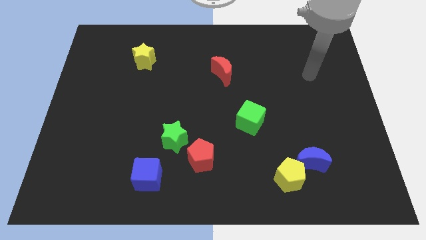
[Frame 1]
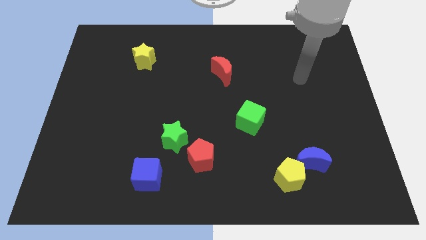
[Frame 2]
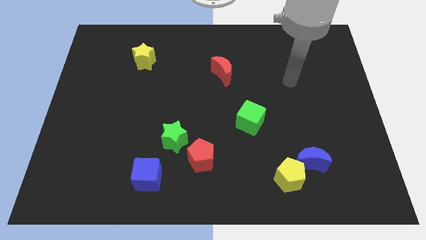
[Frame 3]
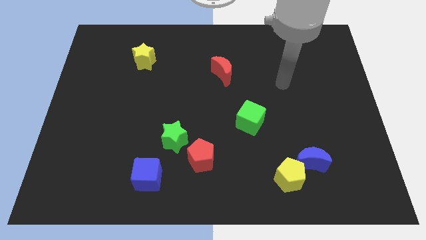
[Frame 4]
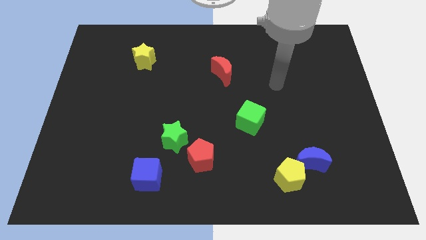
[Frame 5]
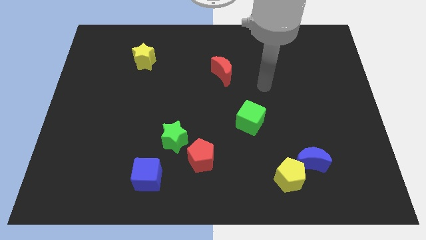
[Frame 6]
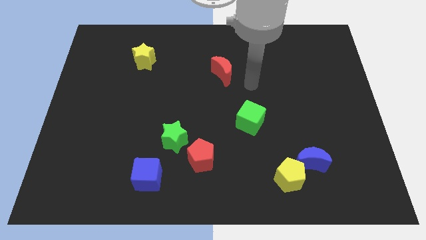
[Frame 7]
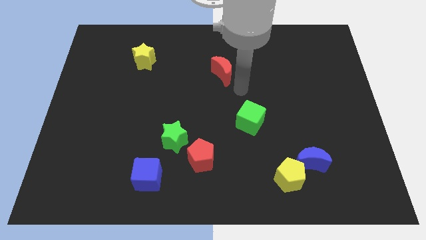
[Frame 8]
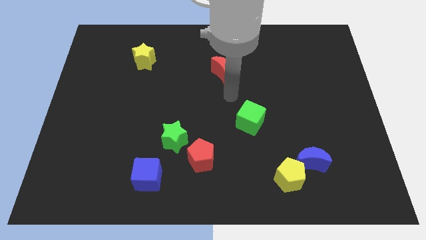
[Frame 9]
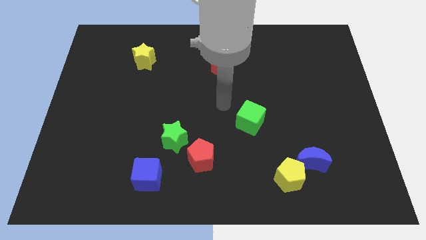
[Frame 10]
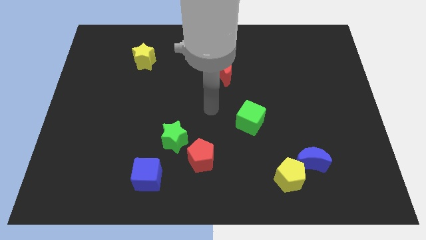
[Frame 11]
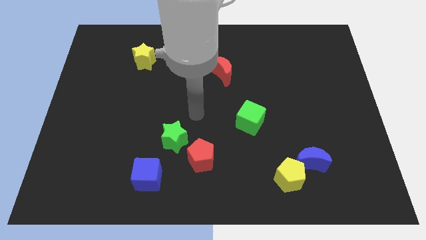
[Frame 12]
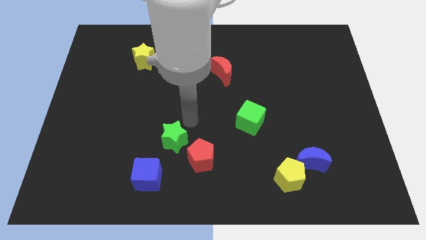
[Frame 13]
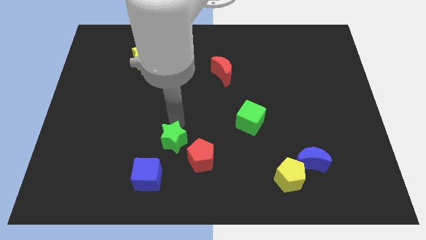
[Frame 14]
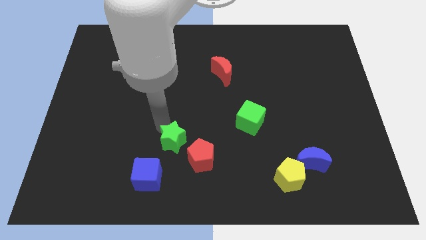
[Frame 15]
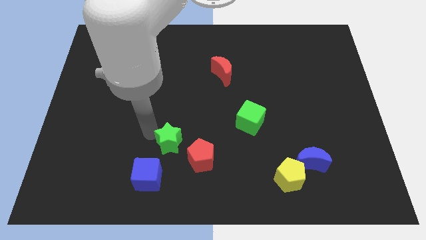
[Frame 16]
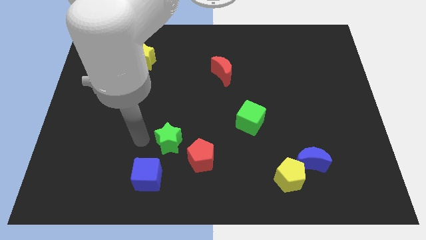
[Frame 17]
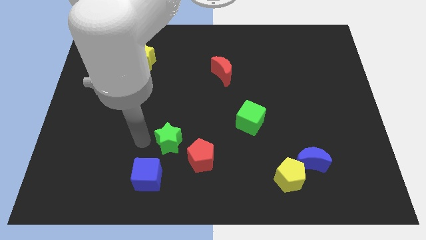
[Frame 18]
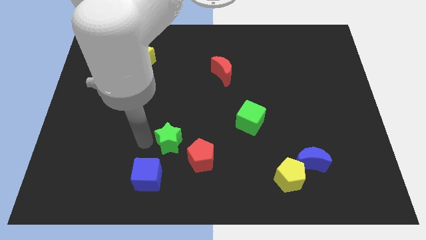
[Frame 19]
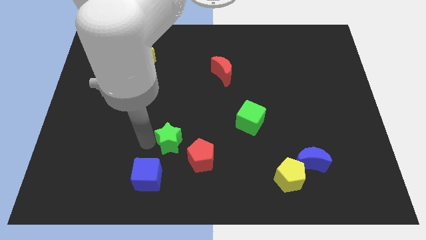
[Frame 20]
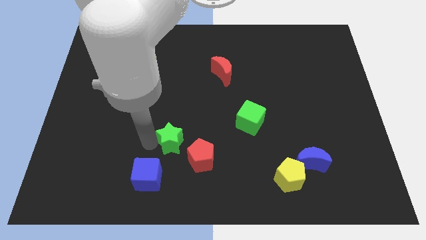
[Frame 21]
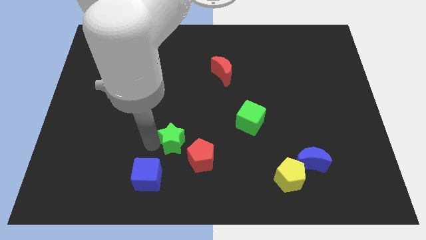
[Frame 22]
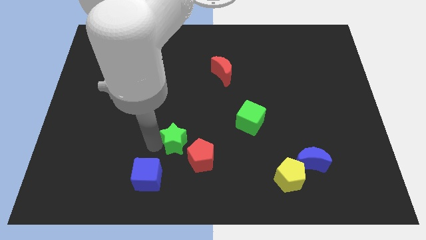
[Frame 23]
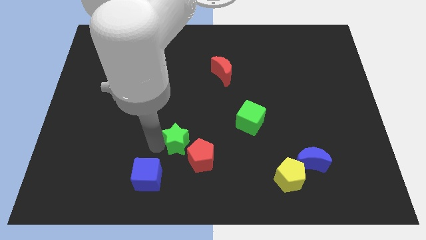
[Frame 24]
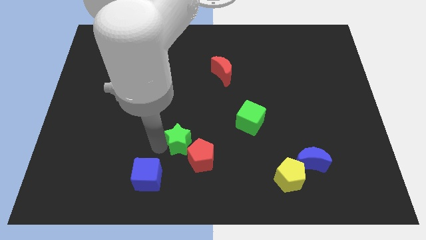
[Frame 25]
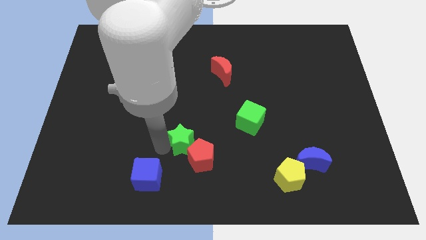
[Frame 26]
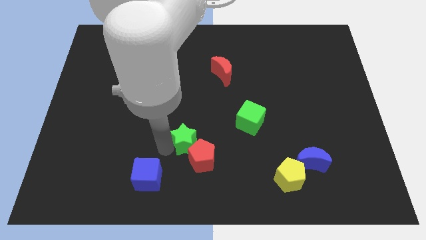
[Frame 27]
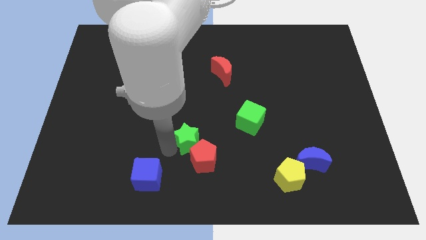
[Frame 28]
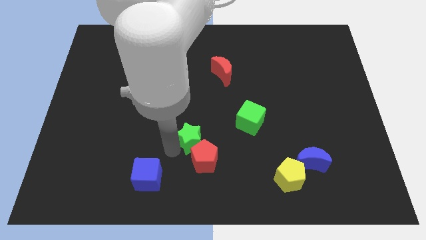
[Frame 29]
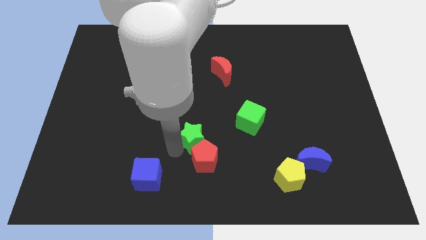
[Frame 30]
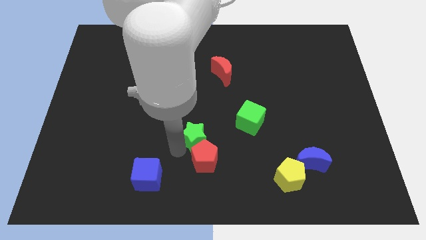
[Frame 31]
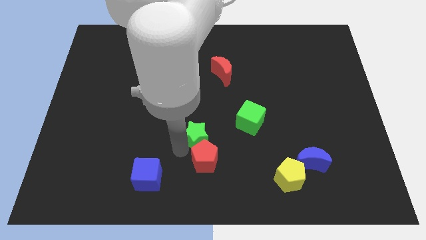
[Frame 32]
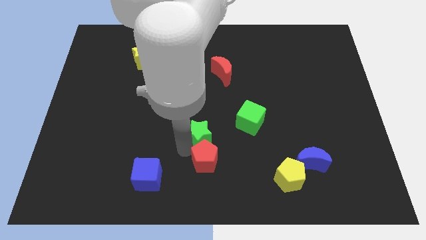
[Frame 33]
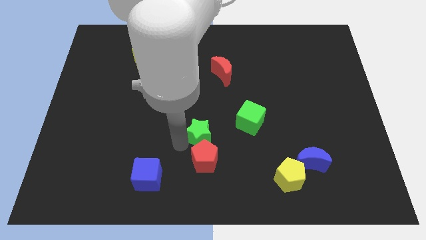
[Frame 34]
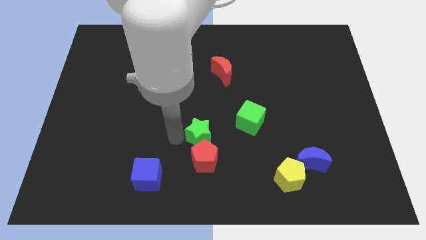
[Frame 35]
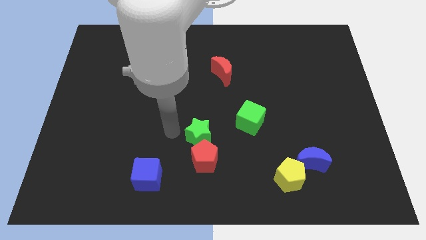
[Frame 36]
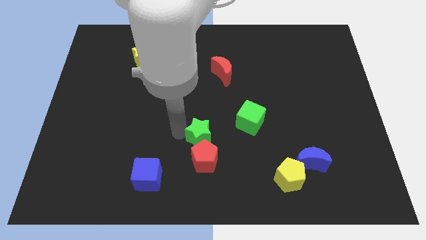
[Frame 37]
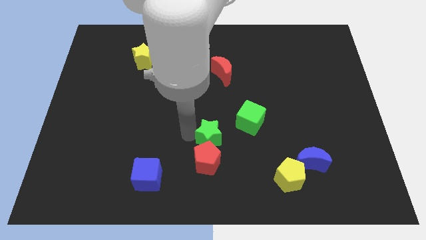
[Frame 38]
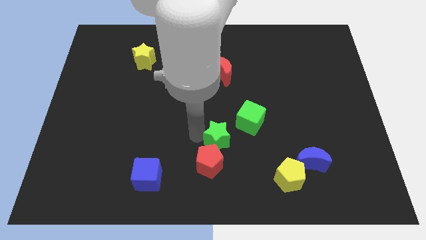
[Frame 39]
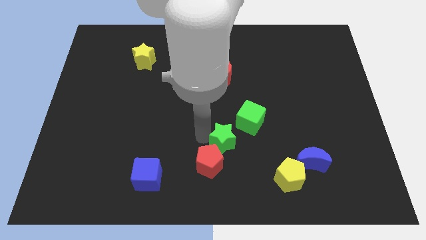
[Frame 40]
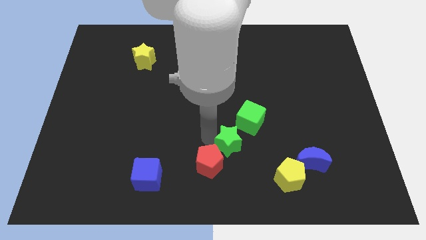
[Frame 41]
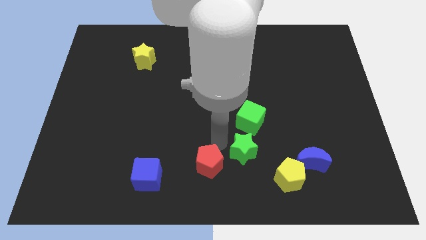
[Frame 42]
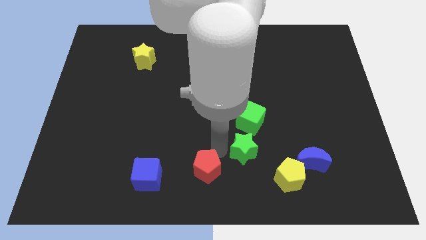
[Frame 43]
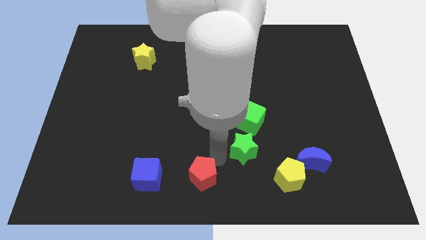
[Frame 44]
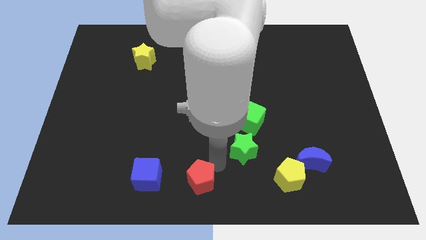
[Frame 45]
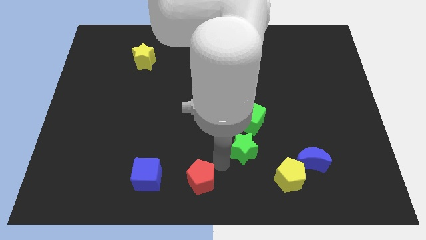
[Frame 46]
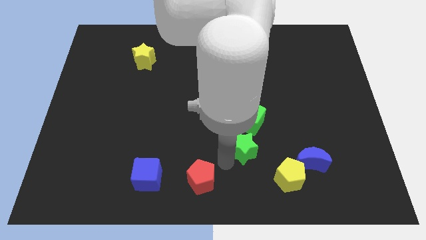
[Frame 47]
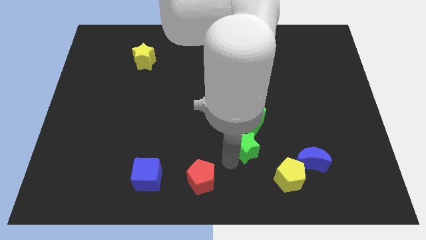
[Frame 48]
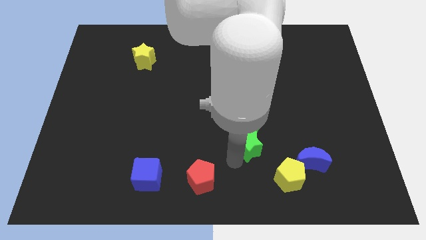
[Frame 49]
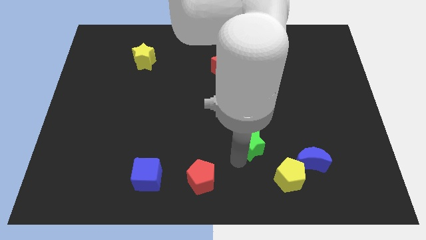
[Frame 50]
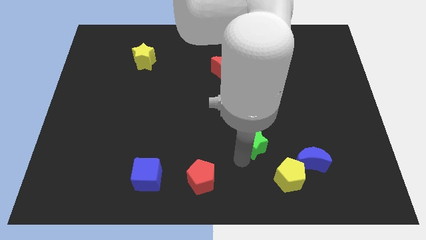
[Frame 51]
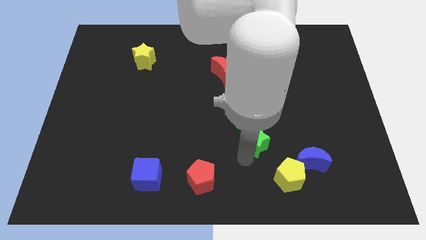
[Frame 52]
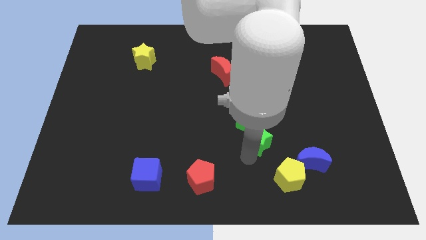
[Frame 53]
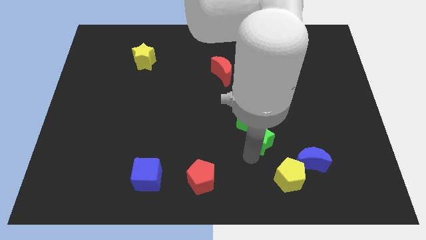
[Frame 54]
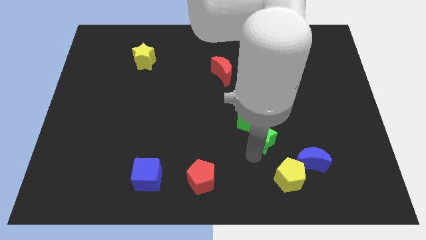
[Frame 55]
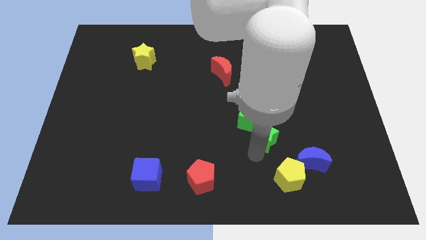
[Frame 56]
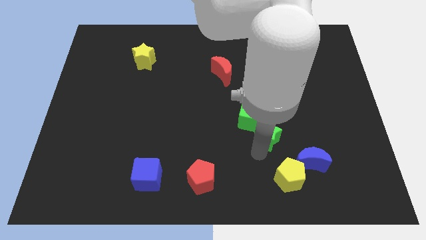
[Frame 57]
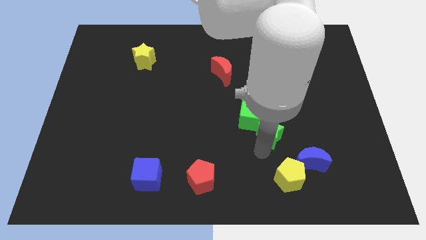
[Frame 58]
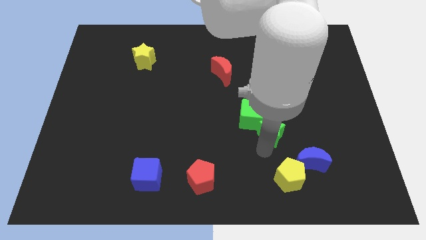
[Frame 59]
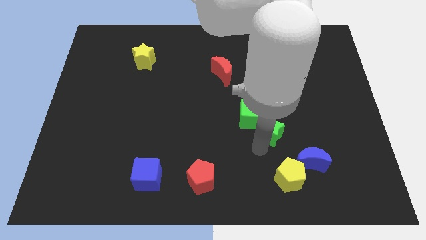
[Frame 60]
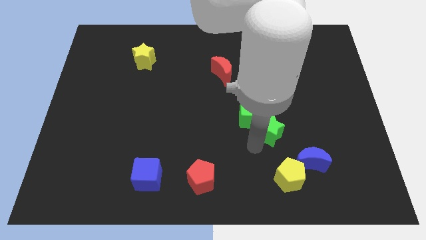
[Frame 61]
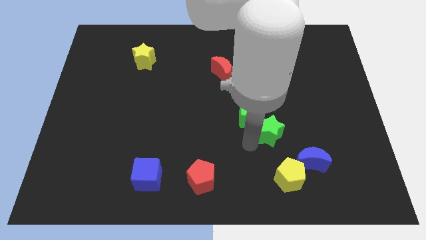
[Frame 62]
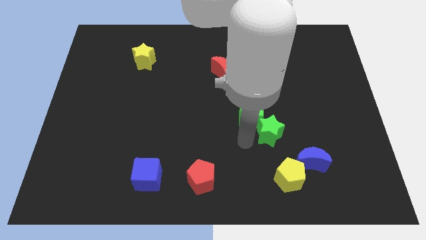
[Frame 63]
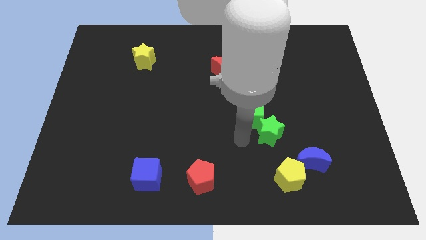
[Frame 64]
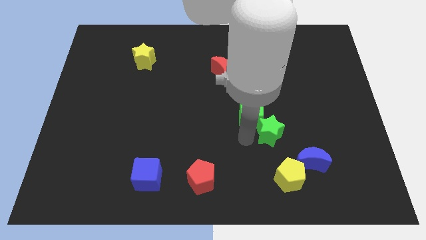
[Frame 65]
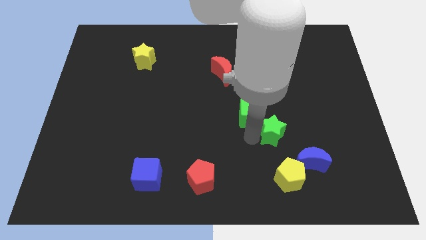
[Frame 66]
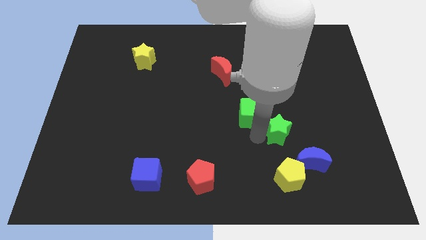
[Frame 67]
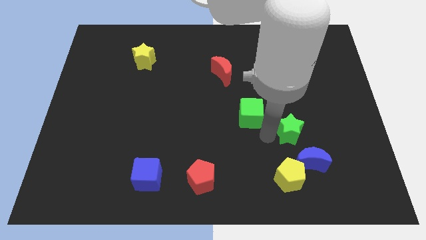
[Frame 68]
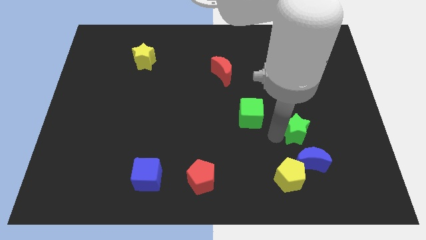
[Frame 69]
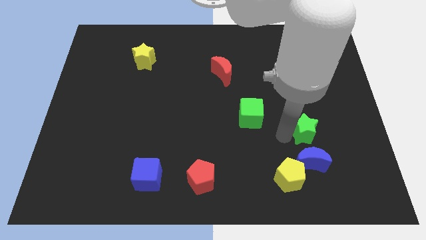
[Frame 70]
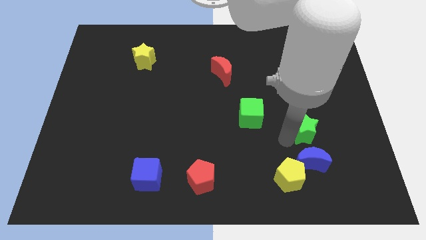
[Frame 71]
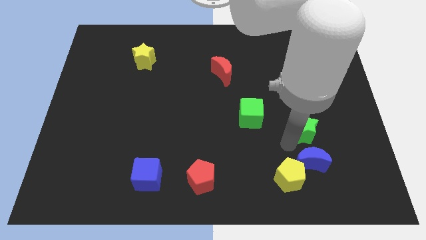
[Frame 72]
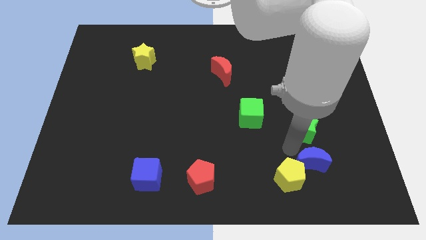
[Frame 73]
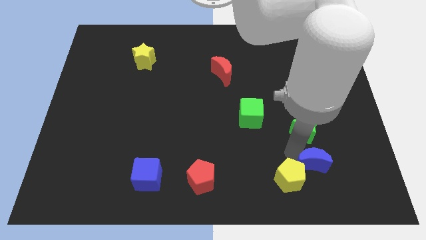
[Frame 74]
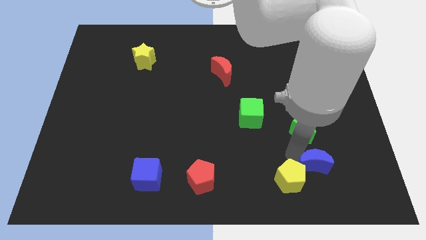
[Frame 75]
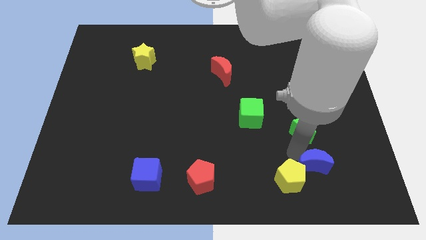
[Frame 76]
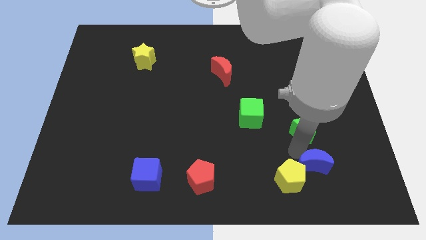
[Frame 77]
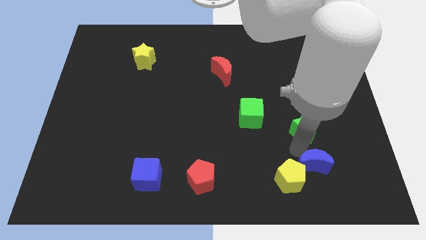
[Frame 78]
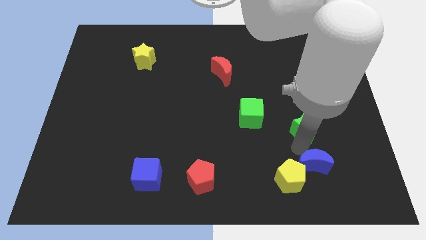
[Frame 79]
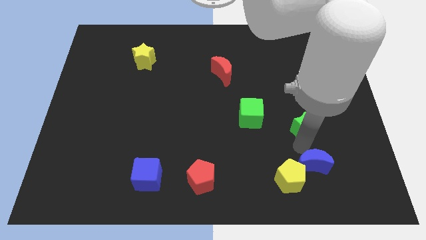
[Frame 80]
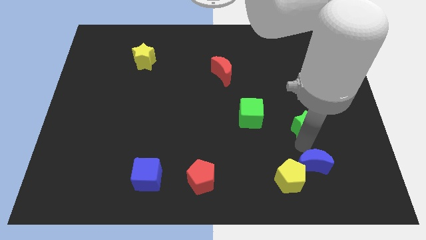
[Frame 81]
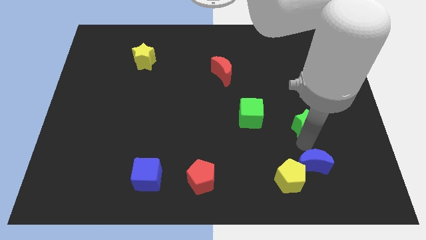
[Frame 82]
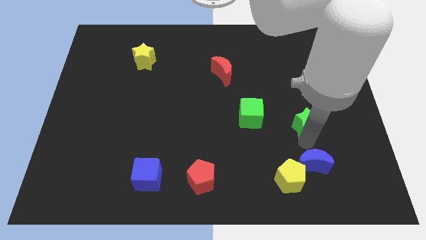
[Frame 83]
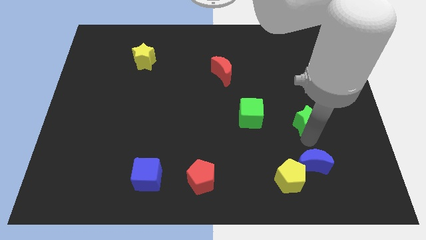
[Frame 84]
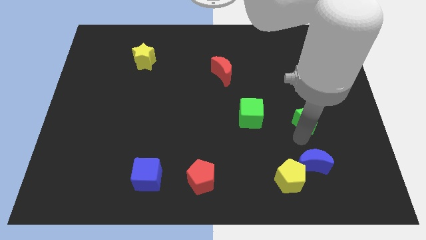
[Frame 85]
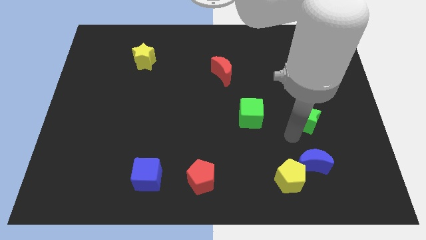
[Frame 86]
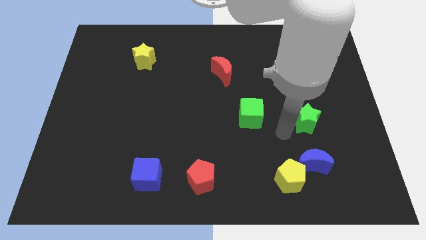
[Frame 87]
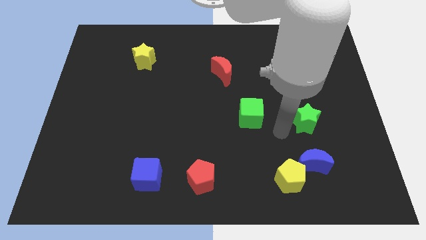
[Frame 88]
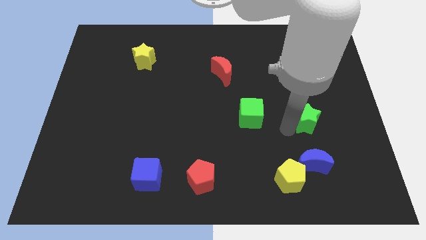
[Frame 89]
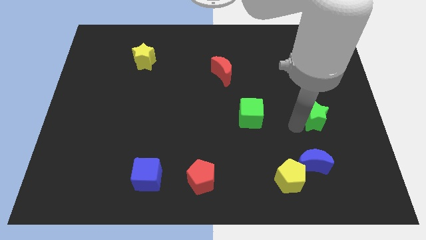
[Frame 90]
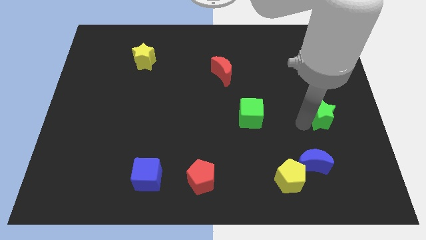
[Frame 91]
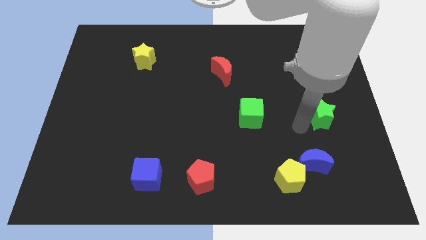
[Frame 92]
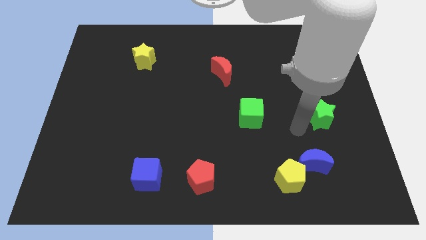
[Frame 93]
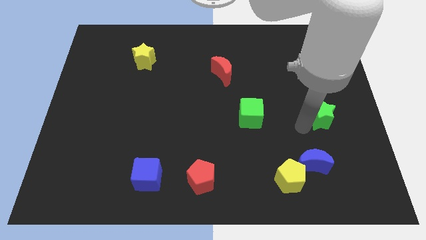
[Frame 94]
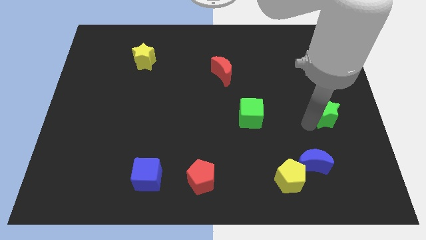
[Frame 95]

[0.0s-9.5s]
move the green star to the right side
